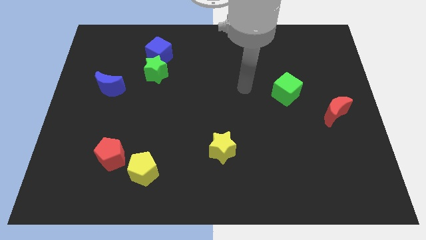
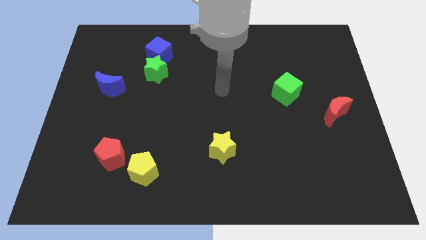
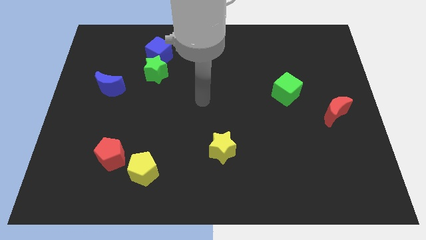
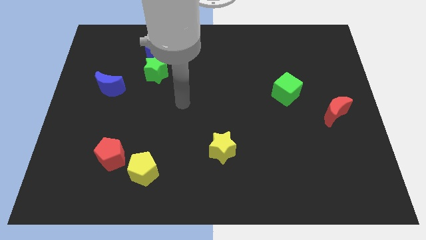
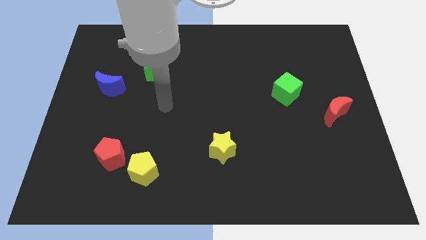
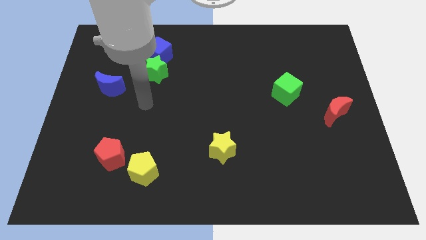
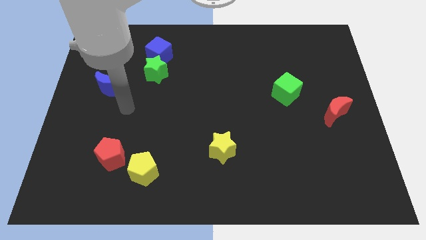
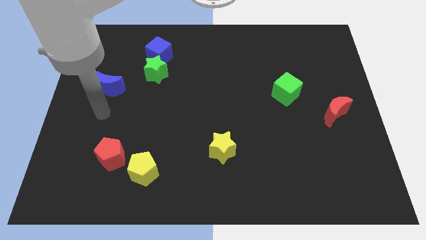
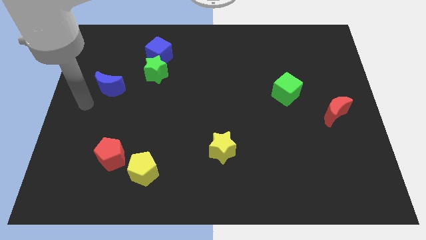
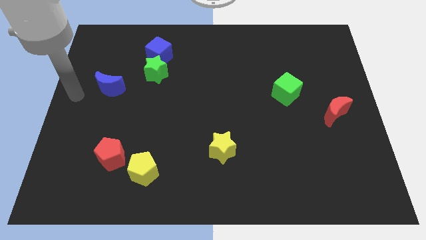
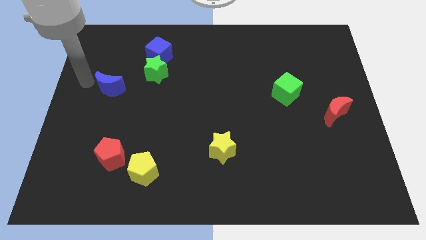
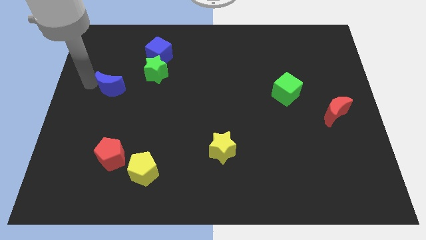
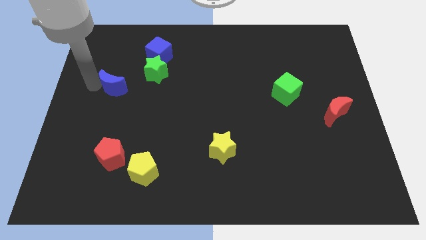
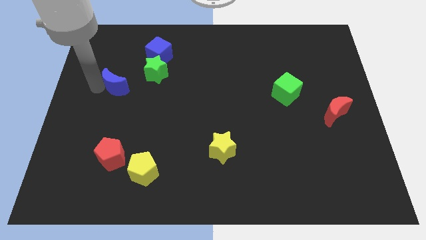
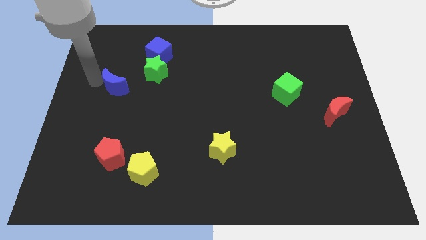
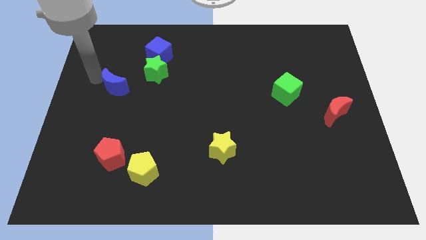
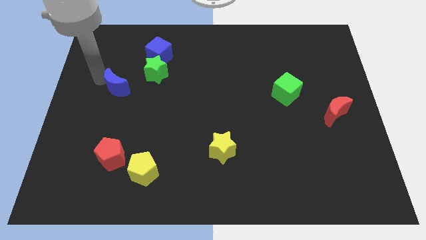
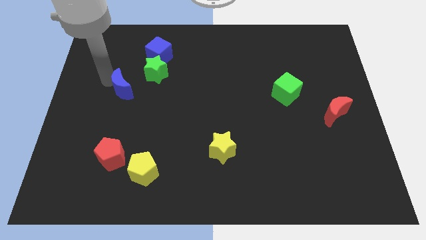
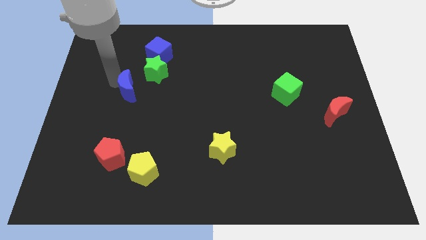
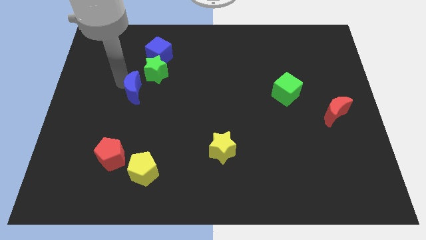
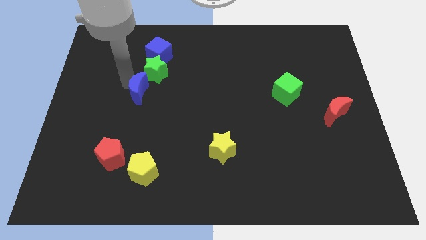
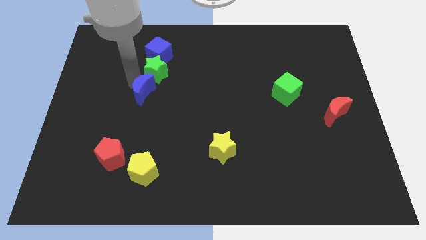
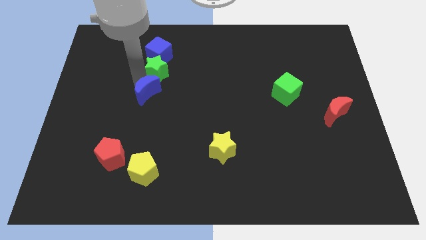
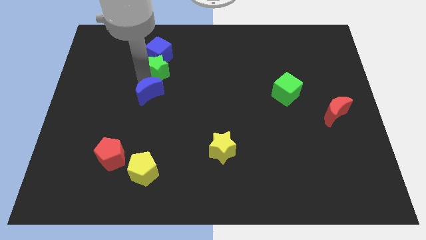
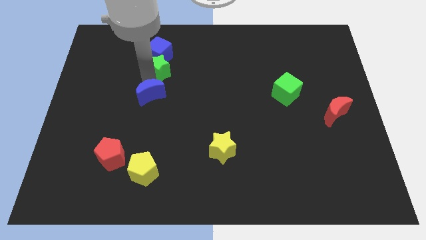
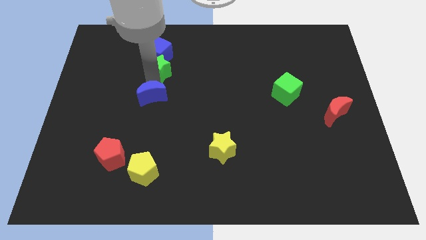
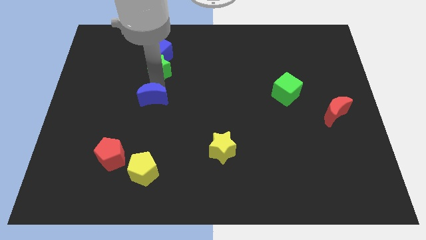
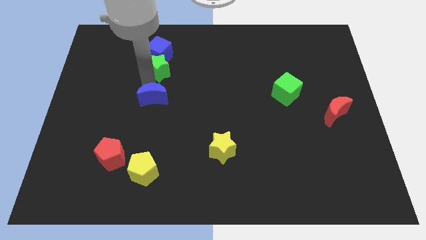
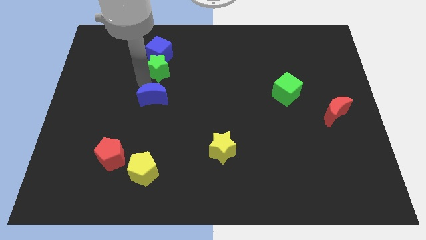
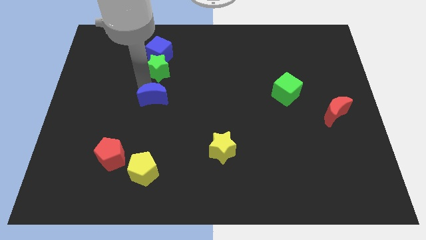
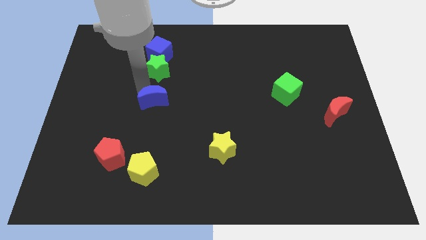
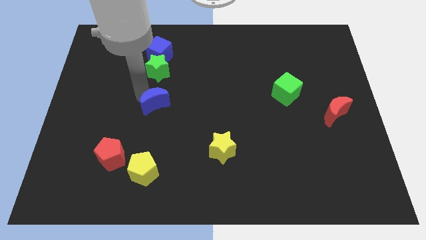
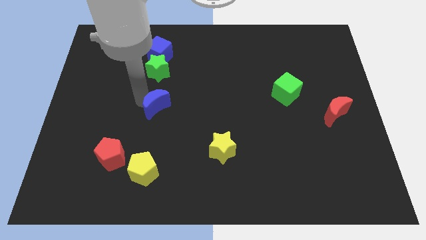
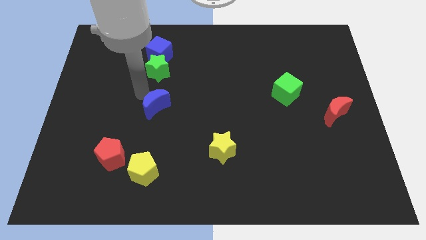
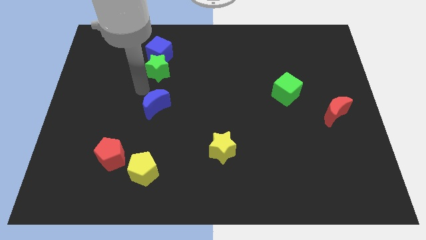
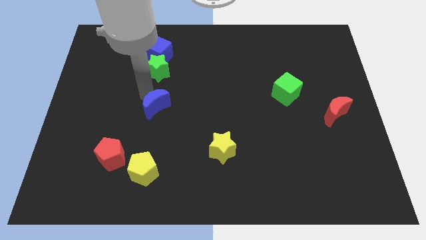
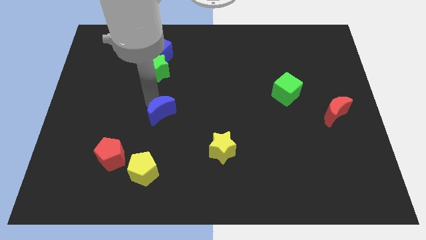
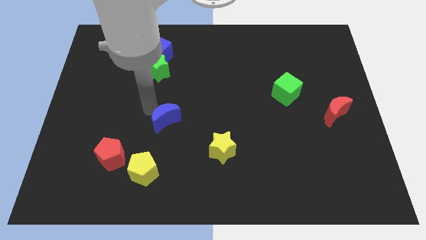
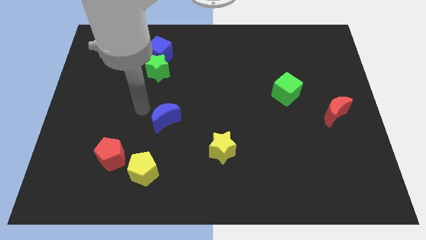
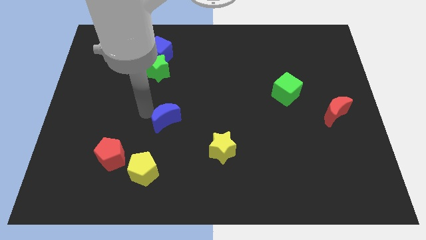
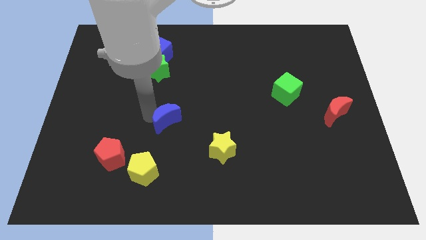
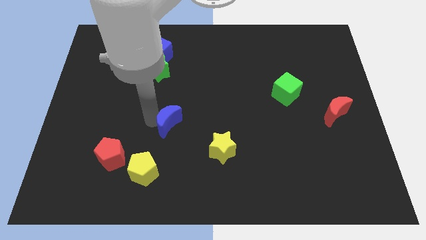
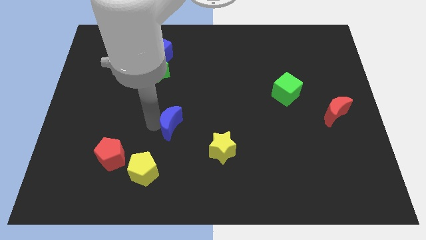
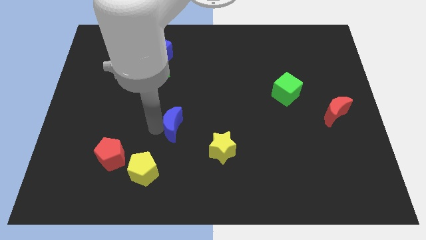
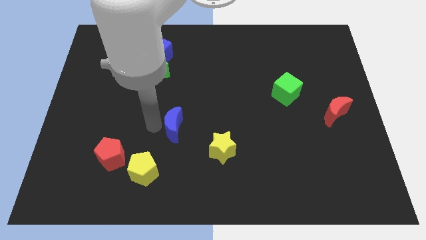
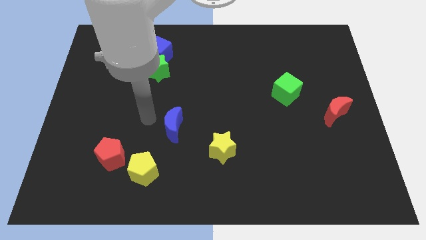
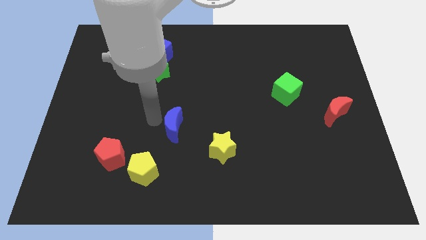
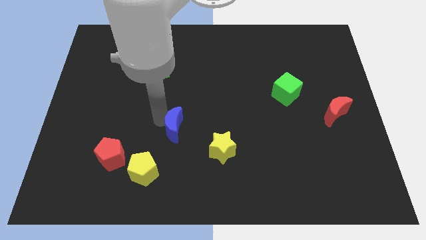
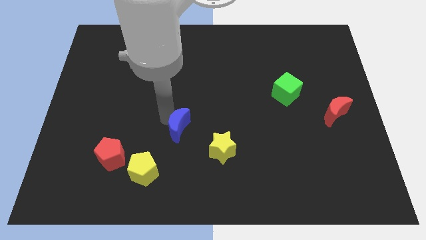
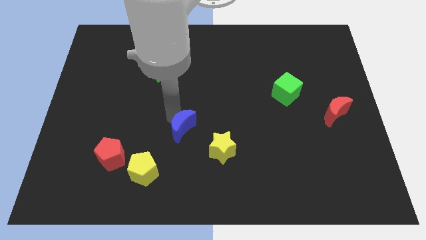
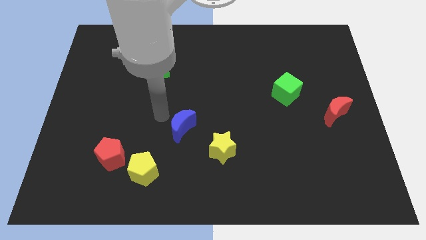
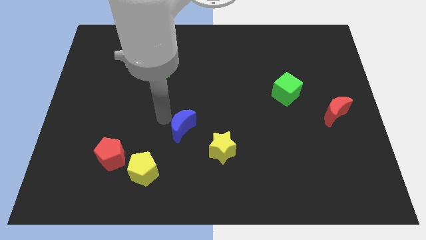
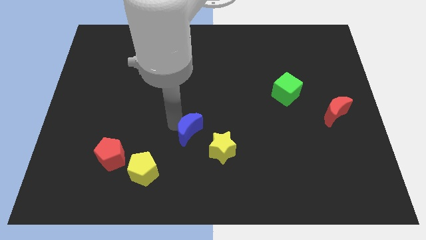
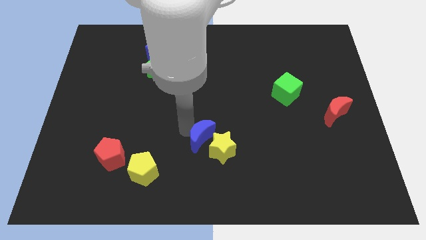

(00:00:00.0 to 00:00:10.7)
put the blue moon towards the yellow star

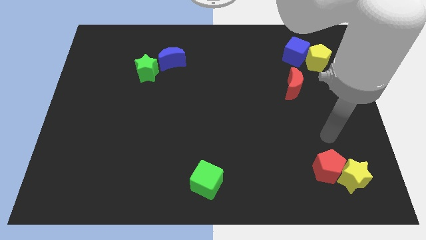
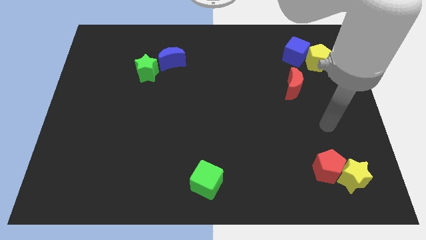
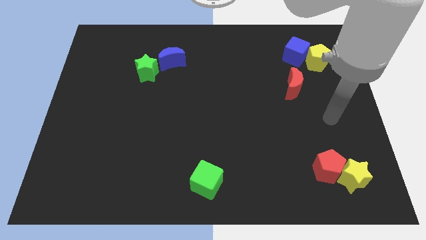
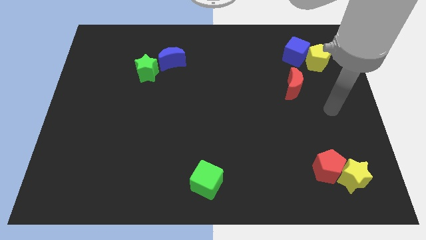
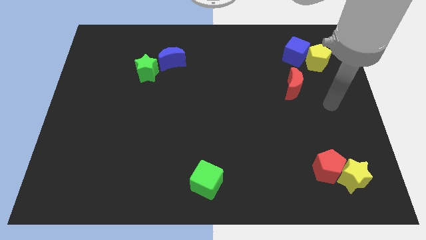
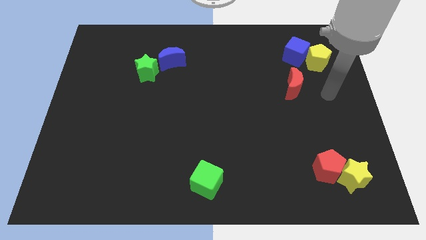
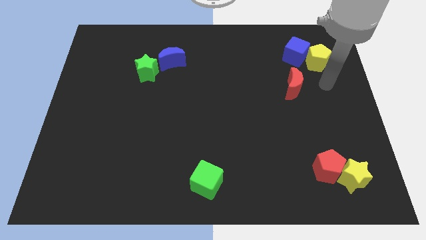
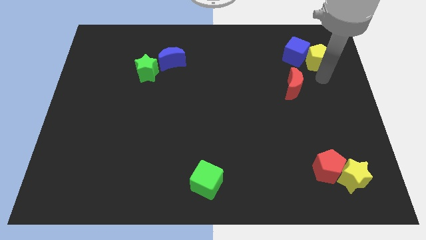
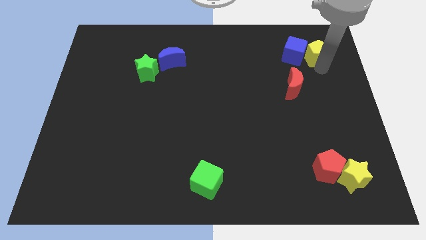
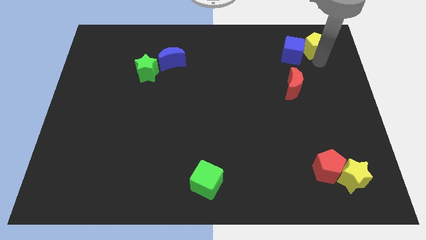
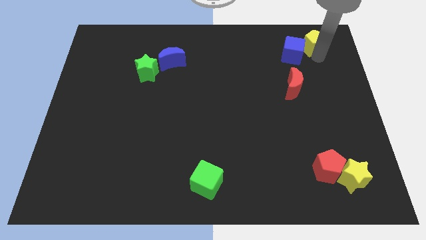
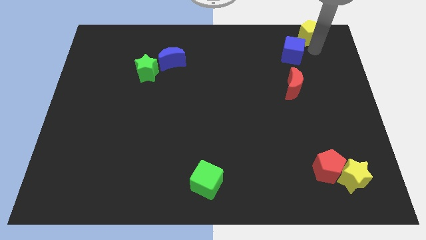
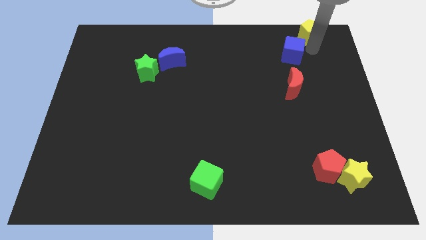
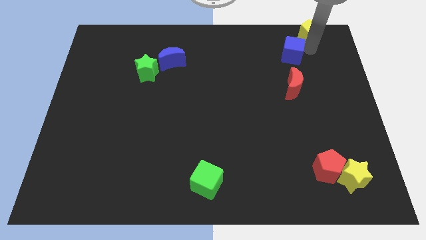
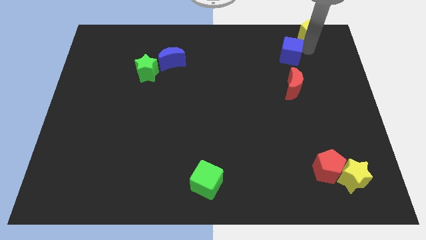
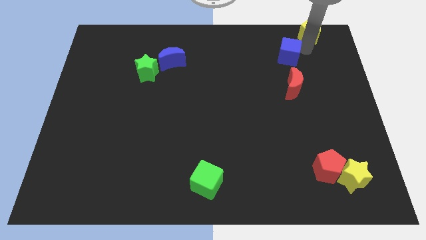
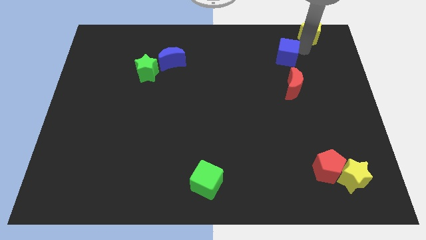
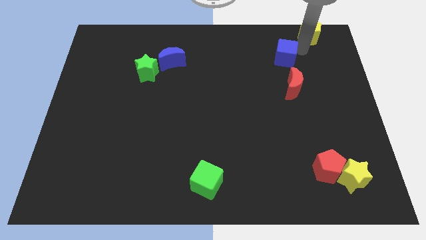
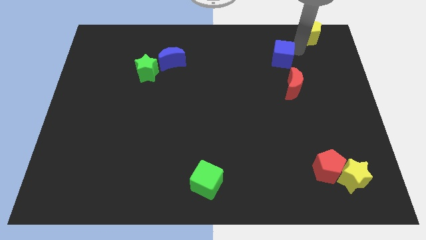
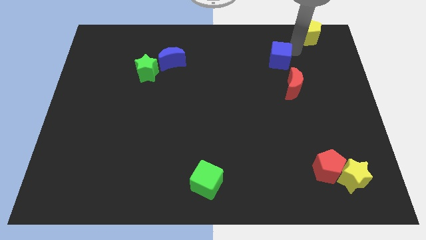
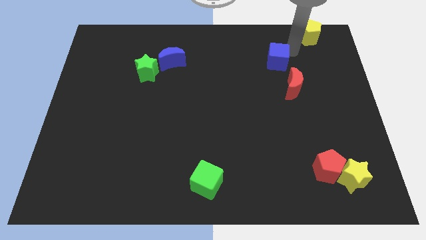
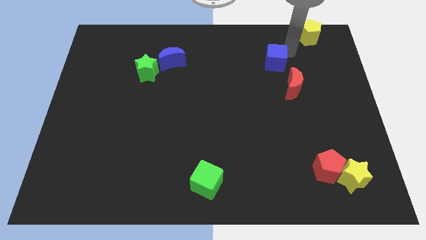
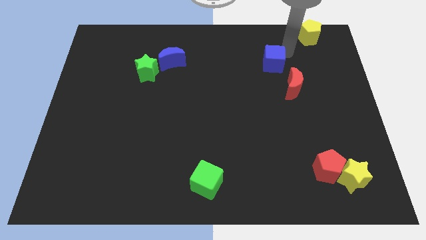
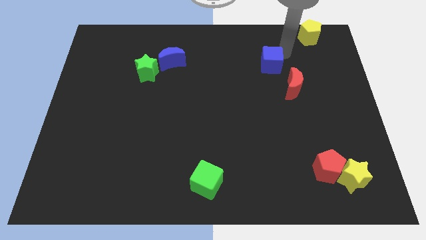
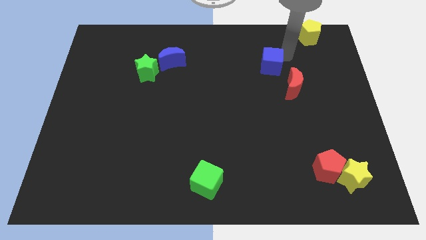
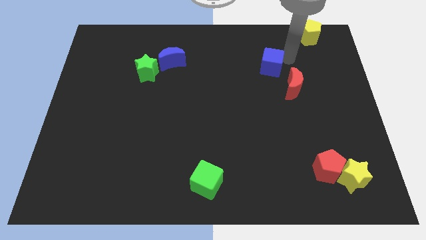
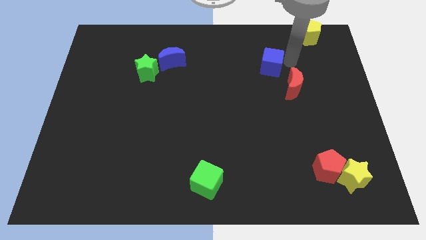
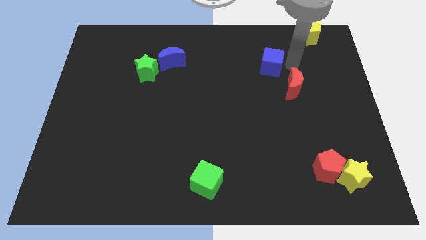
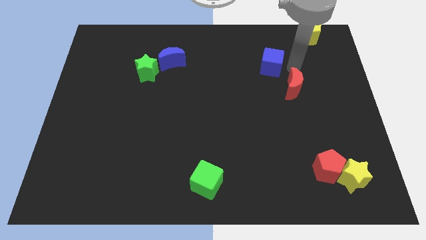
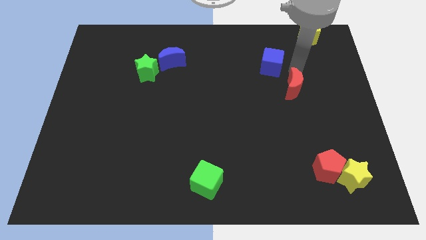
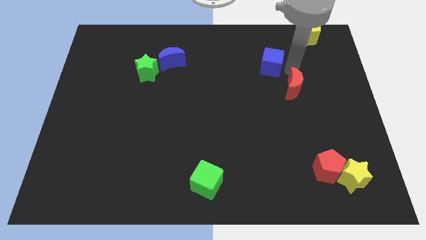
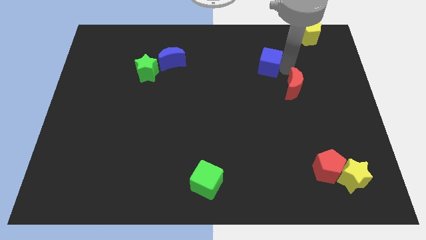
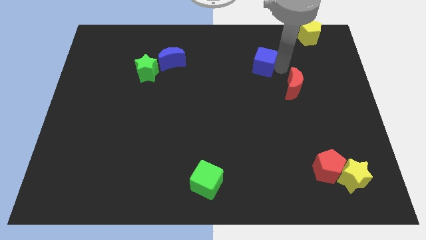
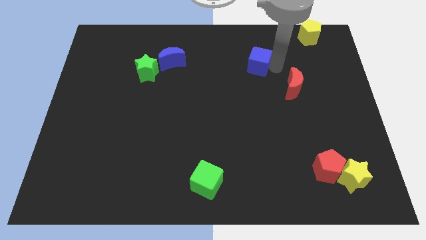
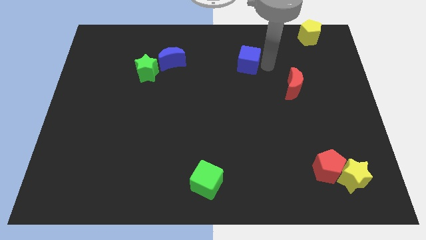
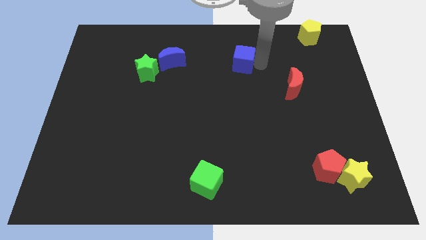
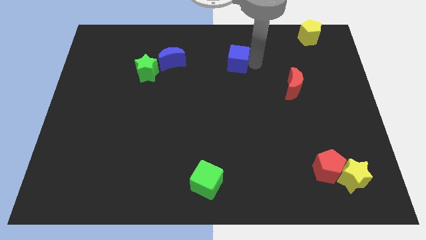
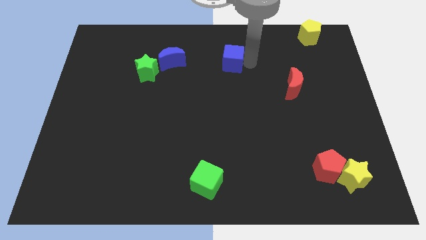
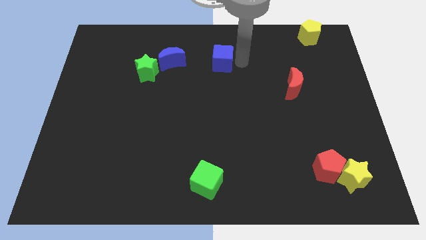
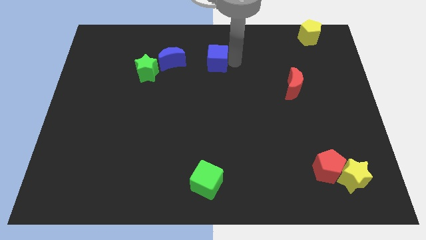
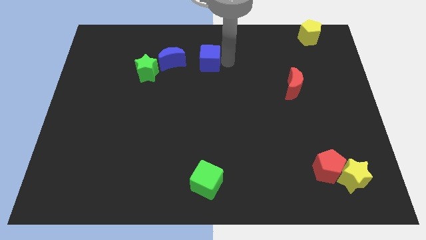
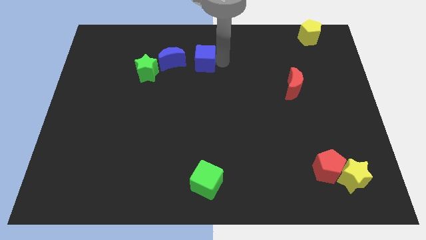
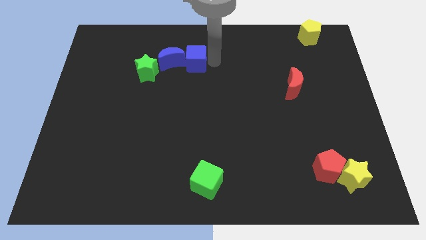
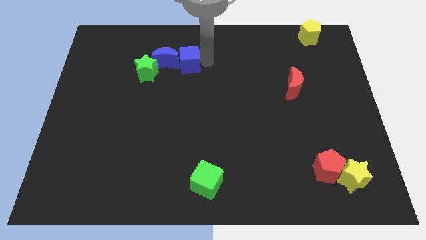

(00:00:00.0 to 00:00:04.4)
put the blue cube to the blue moon
